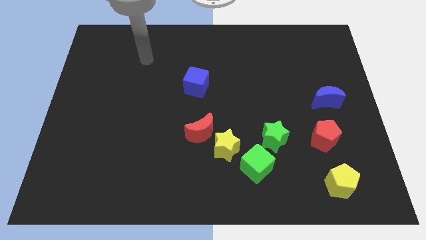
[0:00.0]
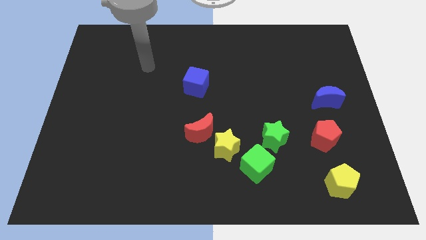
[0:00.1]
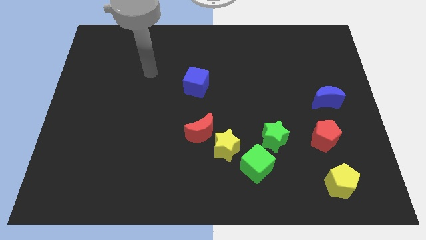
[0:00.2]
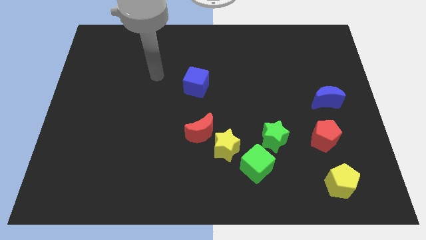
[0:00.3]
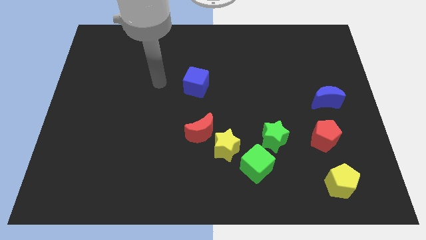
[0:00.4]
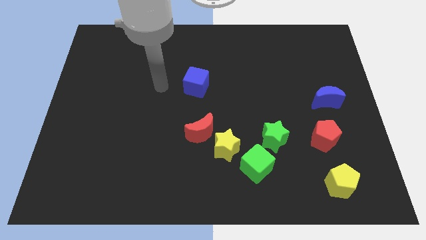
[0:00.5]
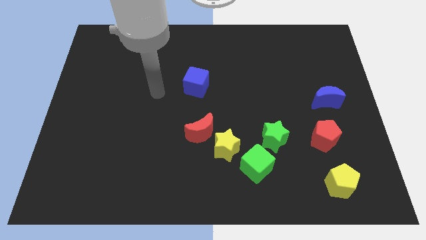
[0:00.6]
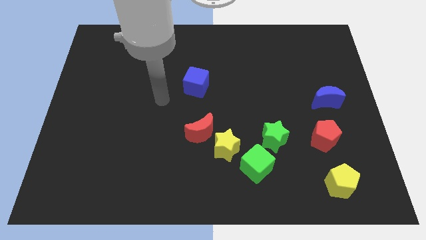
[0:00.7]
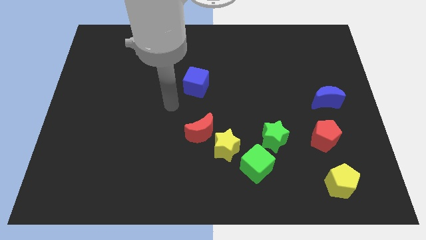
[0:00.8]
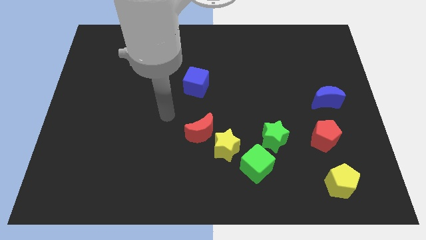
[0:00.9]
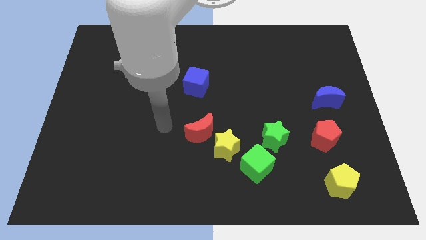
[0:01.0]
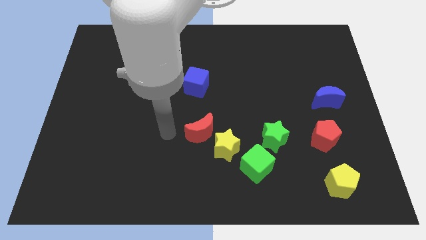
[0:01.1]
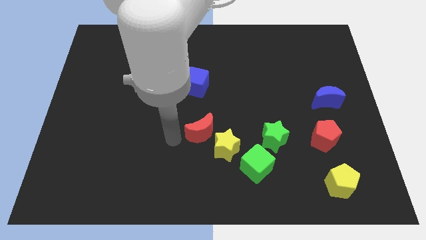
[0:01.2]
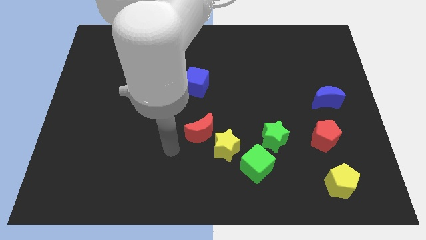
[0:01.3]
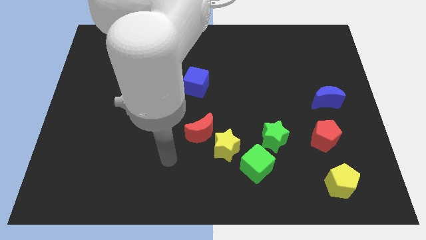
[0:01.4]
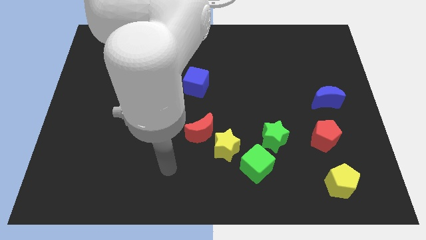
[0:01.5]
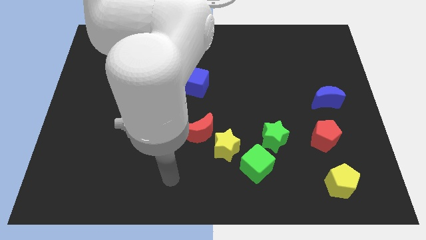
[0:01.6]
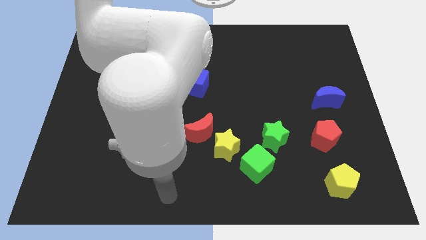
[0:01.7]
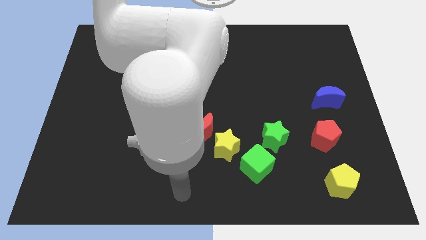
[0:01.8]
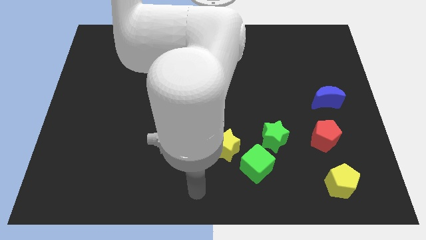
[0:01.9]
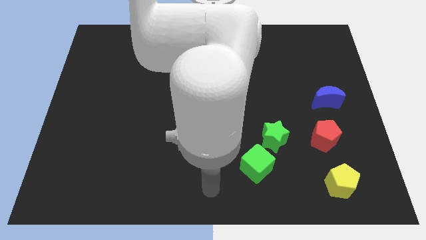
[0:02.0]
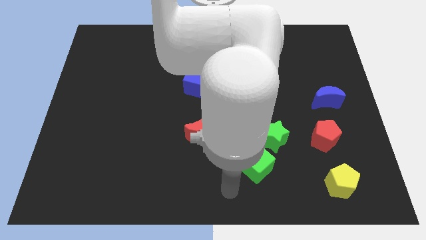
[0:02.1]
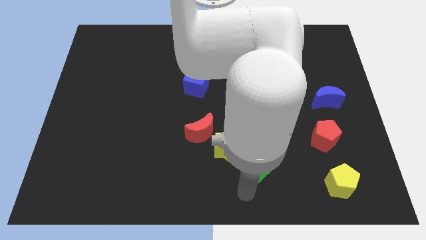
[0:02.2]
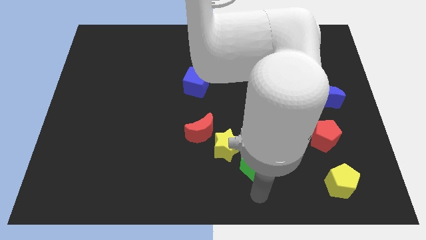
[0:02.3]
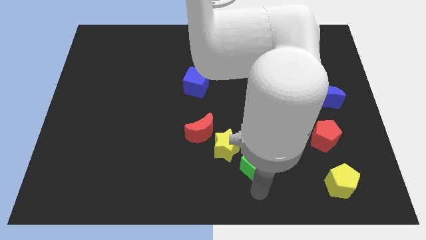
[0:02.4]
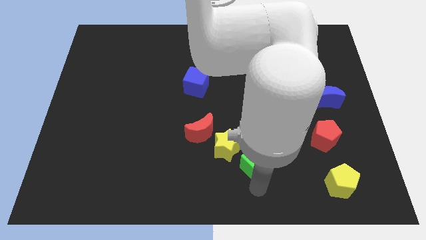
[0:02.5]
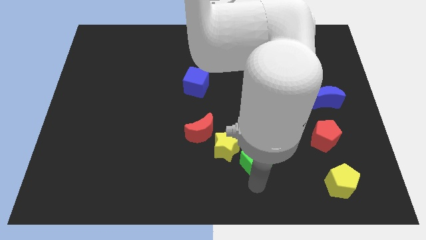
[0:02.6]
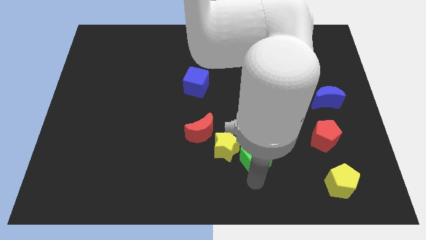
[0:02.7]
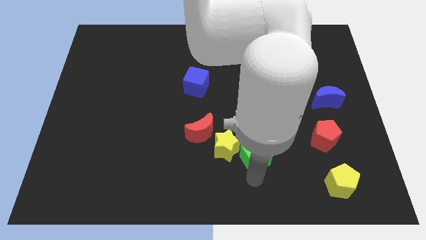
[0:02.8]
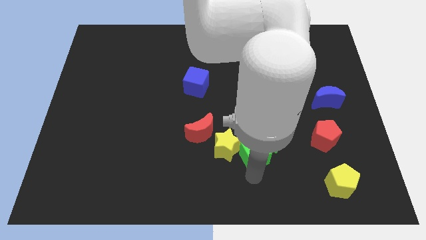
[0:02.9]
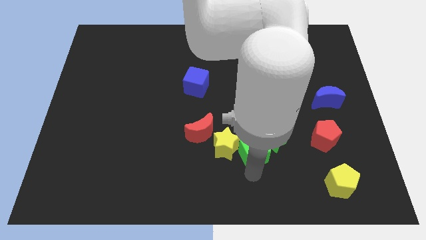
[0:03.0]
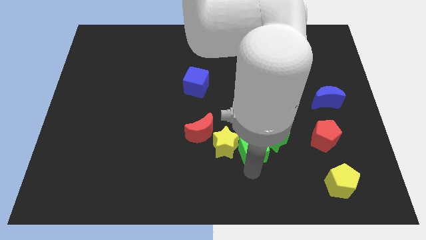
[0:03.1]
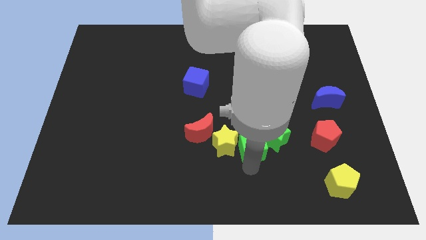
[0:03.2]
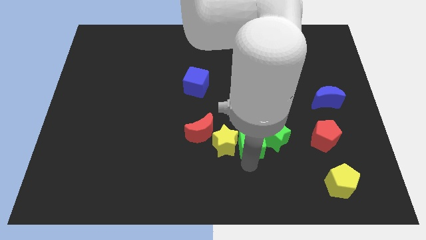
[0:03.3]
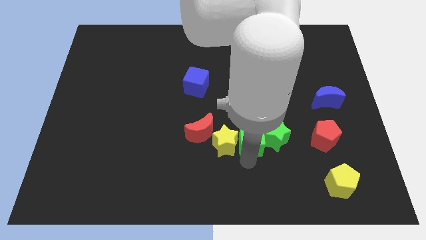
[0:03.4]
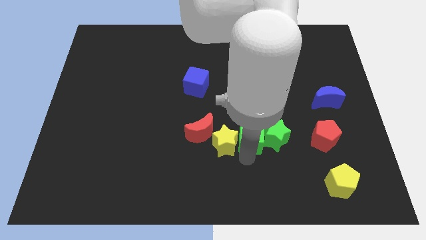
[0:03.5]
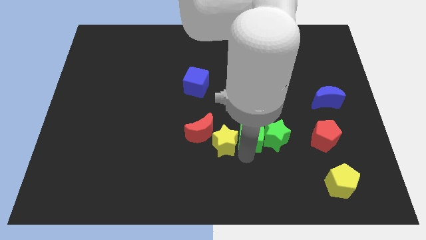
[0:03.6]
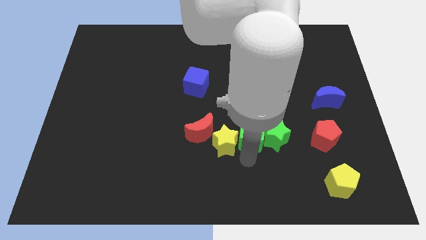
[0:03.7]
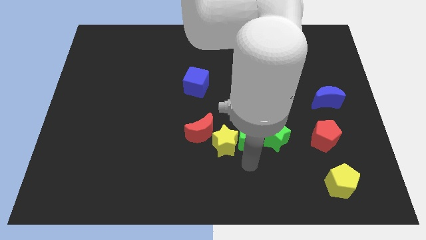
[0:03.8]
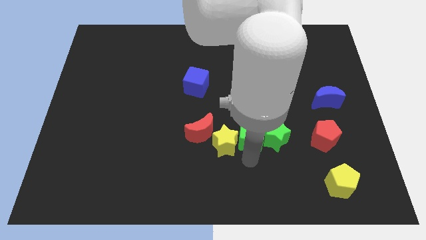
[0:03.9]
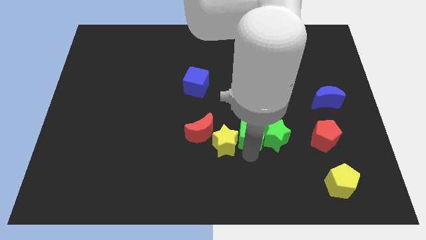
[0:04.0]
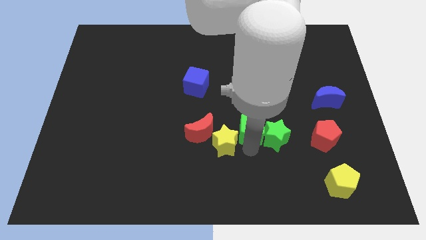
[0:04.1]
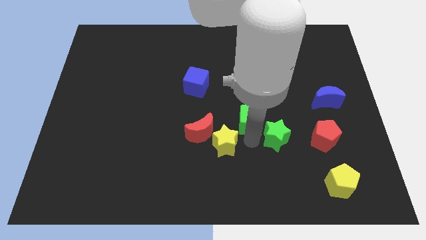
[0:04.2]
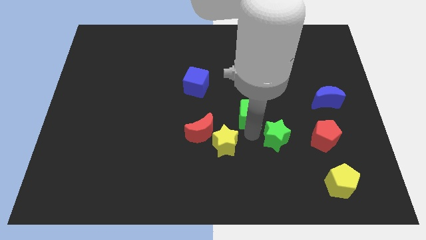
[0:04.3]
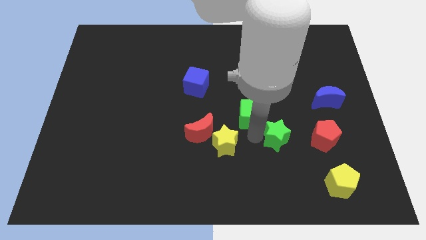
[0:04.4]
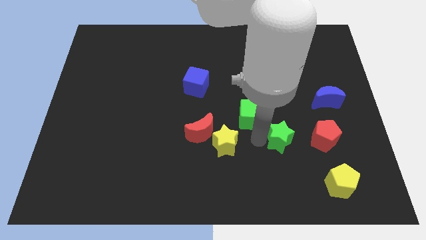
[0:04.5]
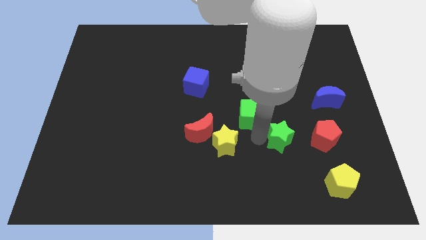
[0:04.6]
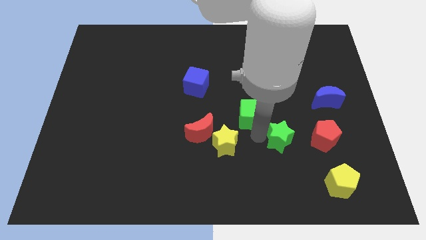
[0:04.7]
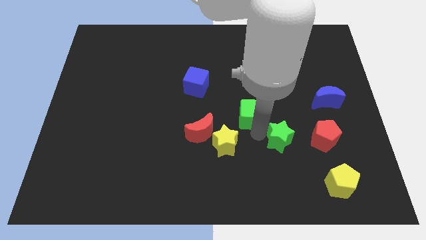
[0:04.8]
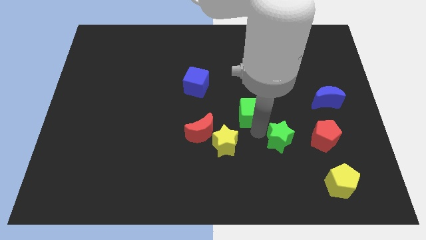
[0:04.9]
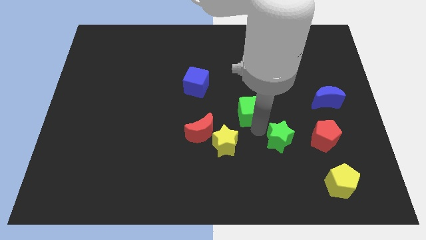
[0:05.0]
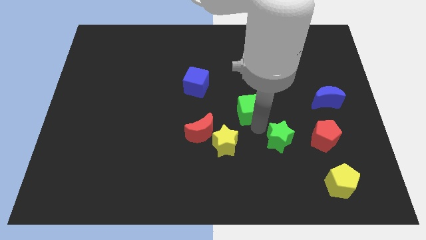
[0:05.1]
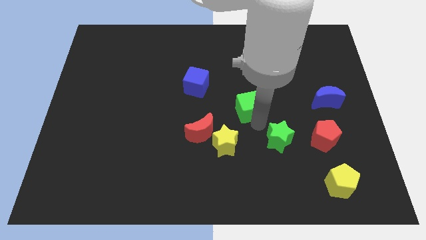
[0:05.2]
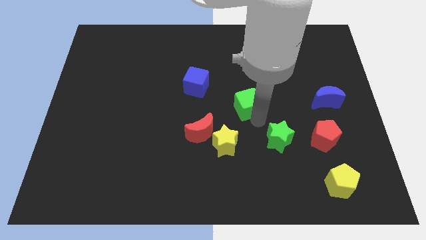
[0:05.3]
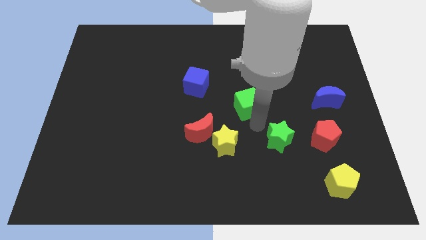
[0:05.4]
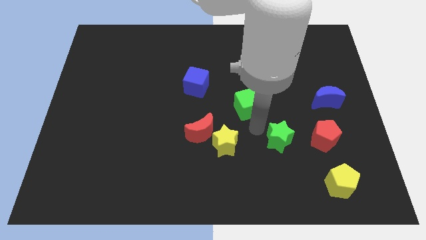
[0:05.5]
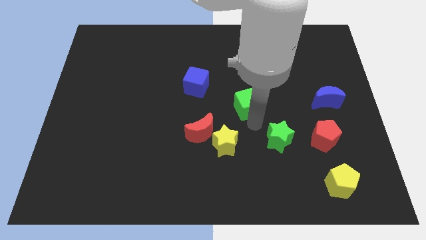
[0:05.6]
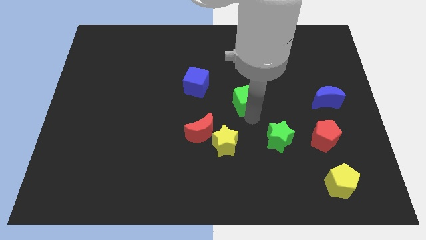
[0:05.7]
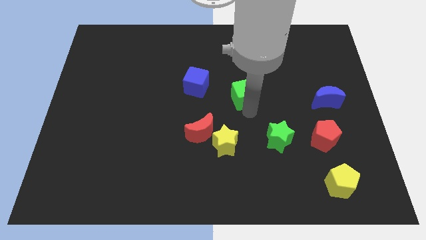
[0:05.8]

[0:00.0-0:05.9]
slide the green cube to the right side of the blue cube

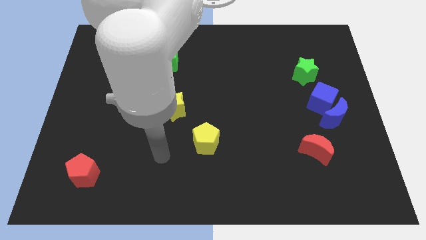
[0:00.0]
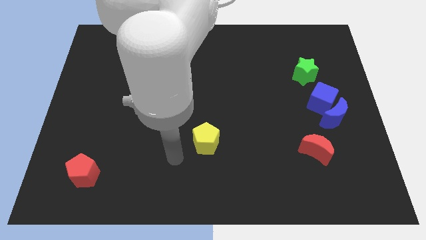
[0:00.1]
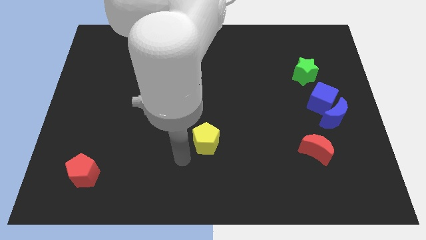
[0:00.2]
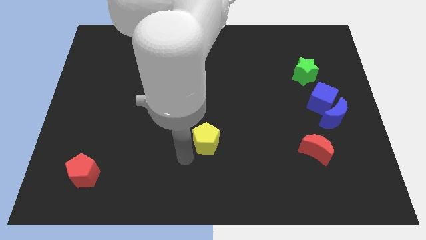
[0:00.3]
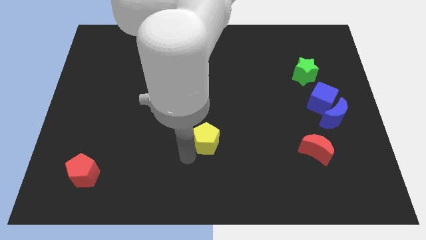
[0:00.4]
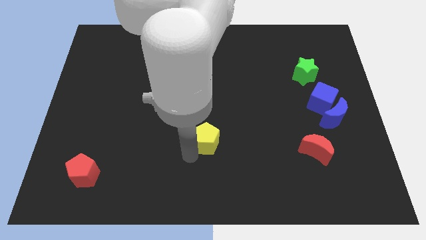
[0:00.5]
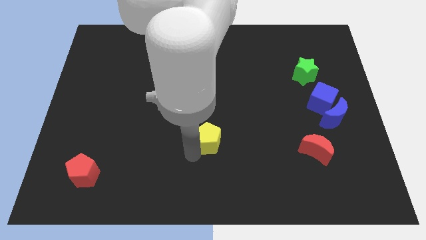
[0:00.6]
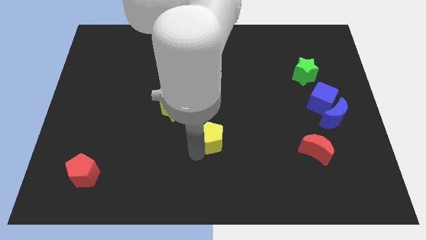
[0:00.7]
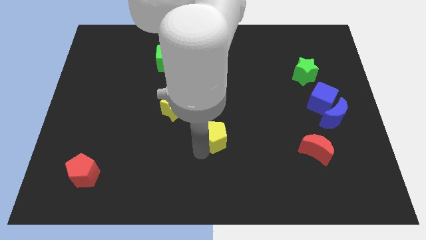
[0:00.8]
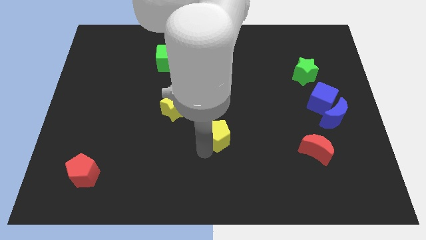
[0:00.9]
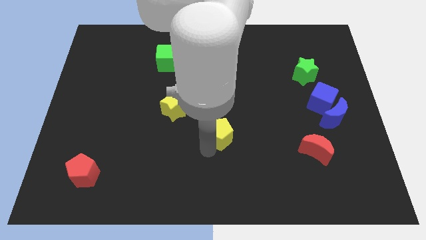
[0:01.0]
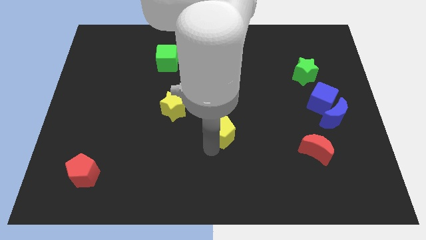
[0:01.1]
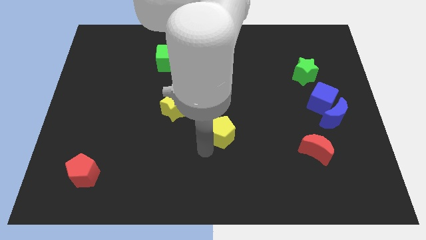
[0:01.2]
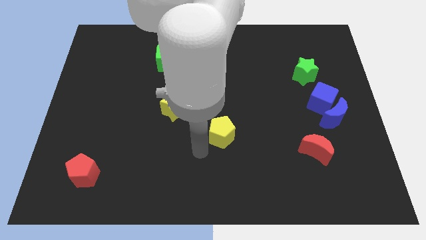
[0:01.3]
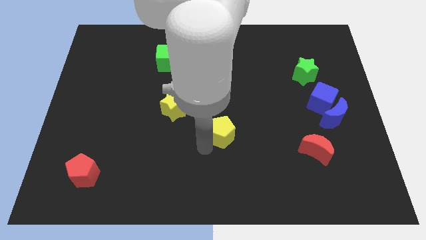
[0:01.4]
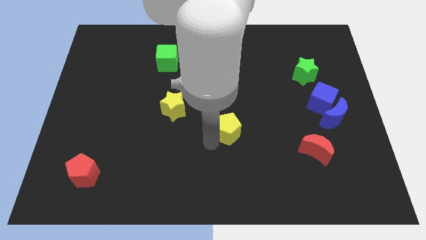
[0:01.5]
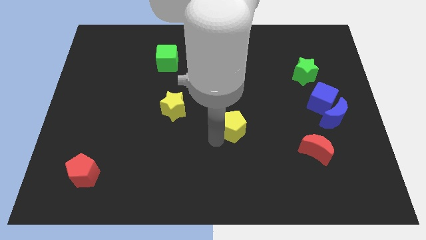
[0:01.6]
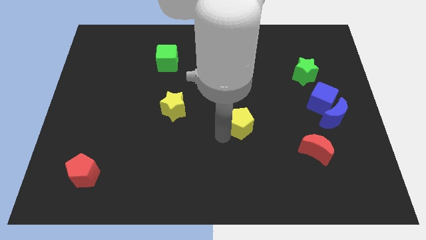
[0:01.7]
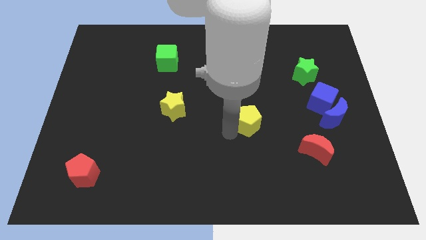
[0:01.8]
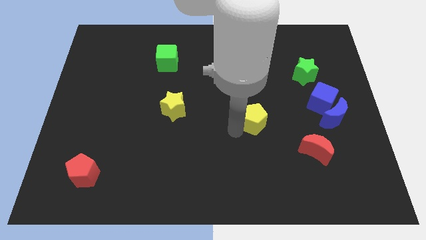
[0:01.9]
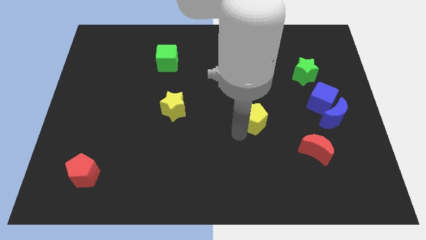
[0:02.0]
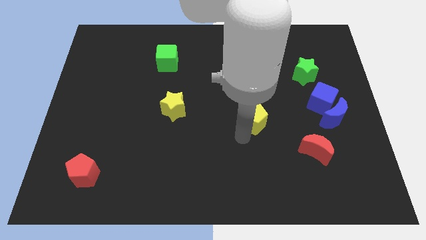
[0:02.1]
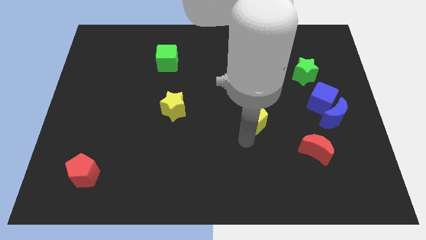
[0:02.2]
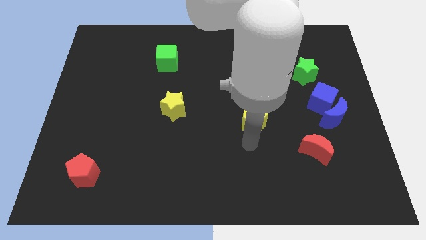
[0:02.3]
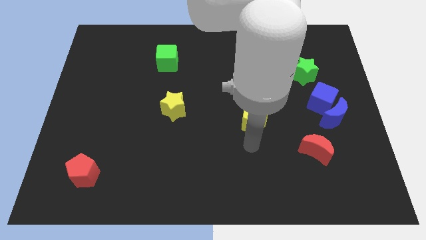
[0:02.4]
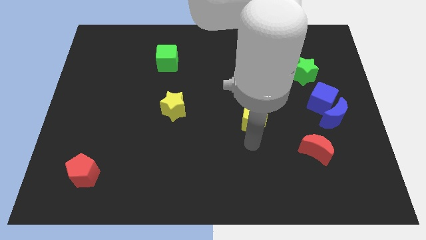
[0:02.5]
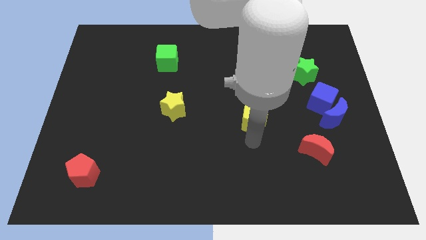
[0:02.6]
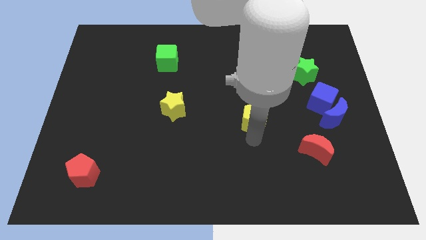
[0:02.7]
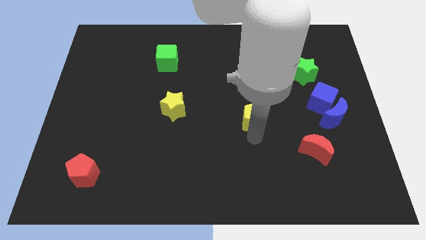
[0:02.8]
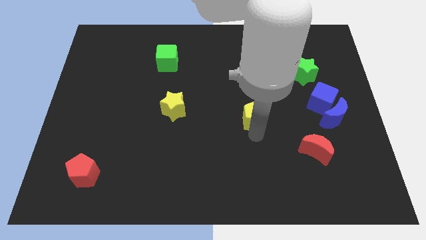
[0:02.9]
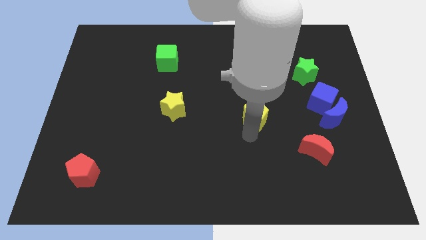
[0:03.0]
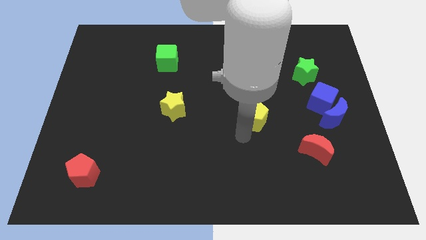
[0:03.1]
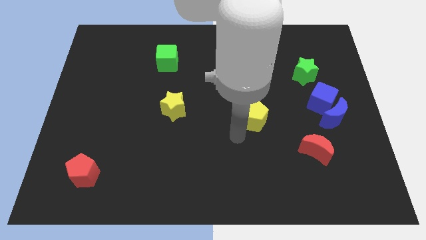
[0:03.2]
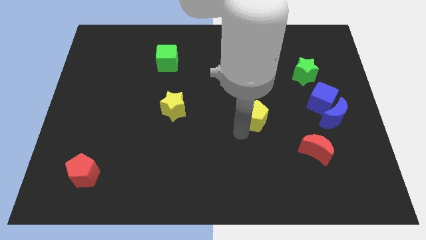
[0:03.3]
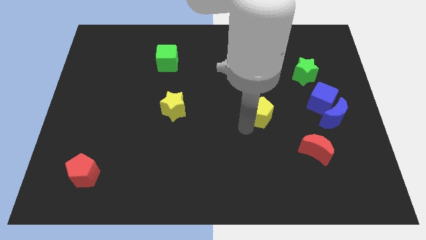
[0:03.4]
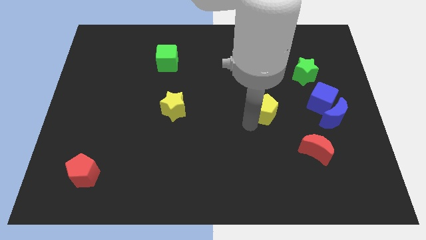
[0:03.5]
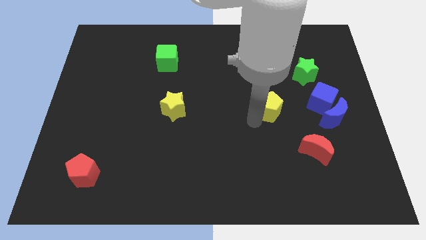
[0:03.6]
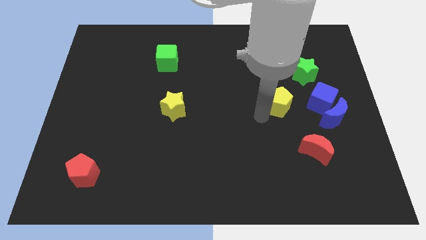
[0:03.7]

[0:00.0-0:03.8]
slide the yellow pentagon diagonally down and to the left of the green star
